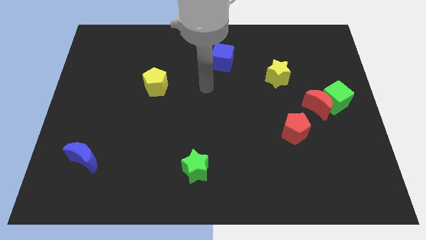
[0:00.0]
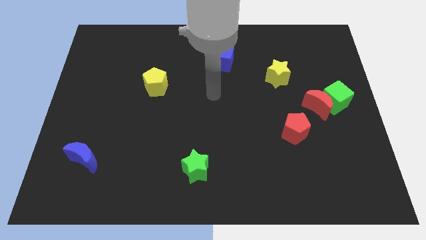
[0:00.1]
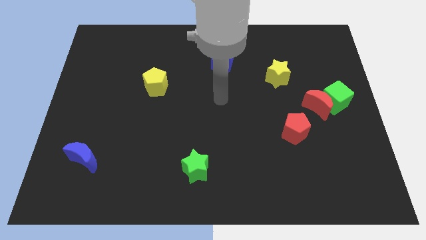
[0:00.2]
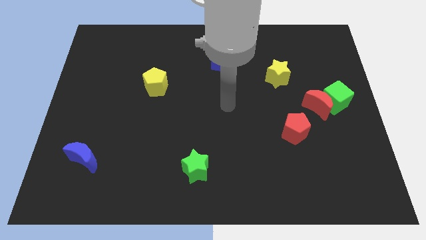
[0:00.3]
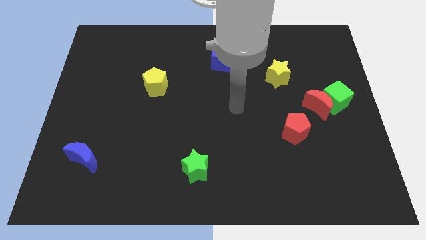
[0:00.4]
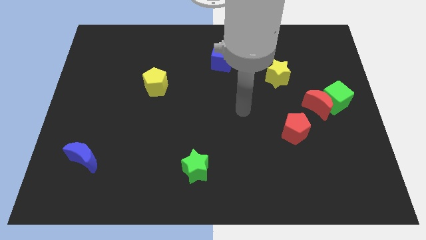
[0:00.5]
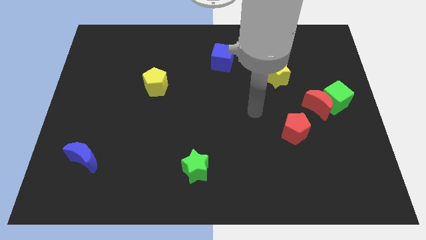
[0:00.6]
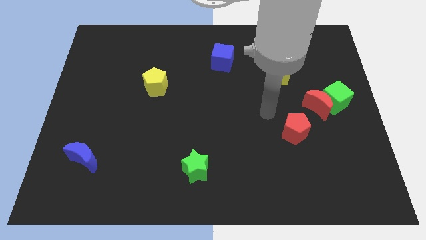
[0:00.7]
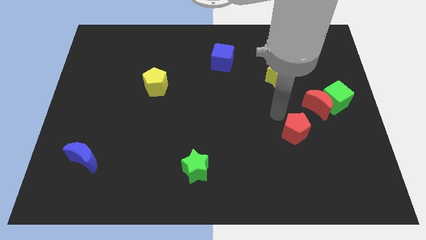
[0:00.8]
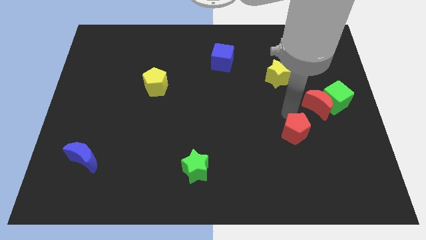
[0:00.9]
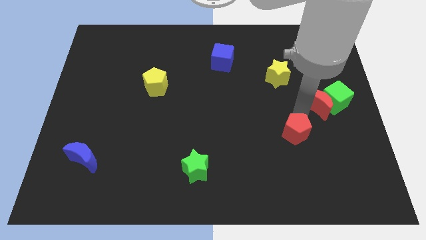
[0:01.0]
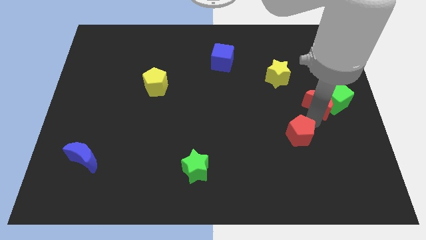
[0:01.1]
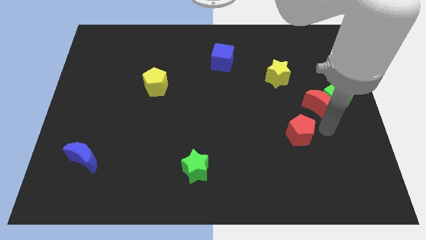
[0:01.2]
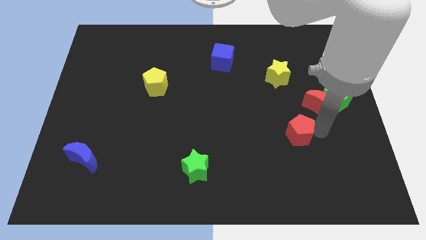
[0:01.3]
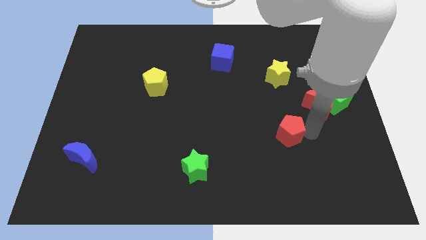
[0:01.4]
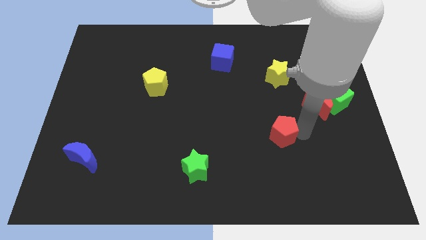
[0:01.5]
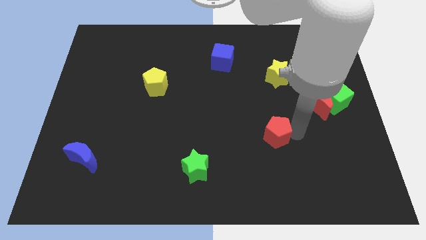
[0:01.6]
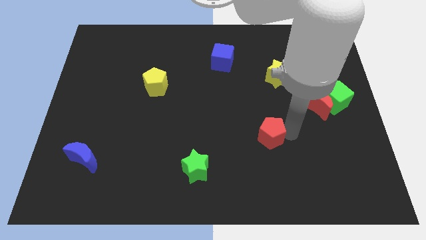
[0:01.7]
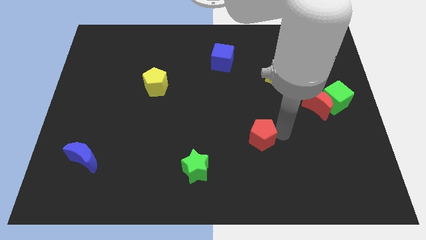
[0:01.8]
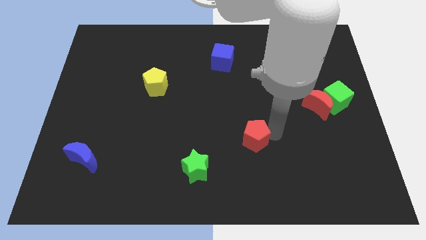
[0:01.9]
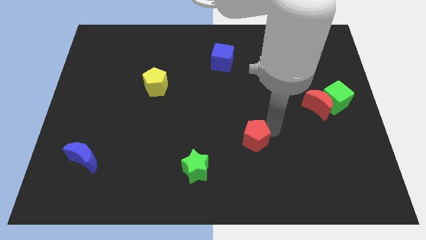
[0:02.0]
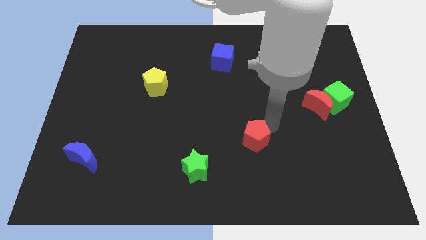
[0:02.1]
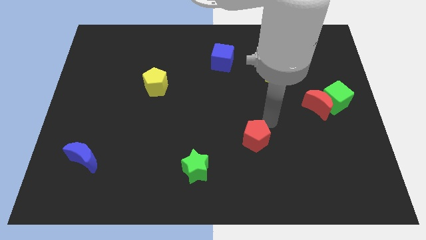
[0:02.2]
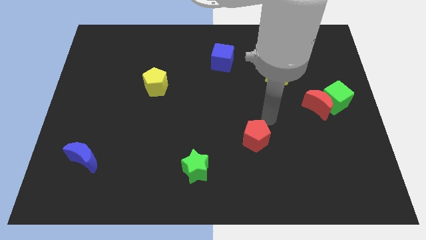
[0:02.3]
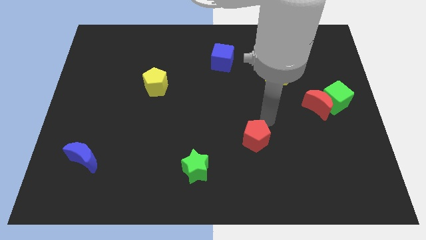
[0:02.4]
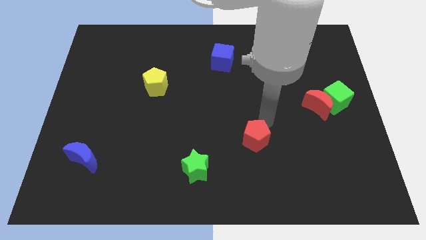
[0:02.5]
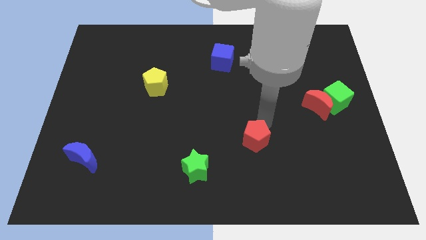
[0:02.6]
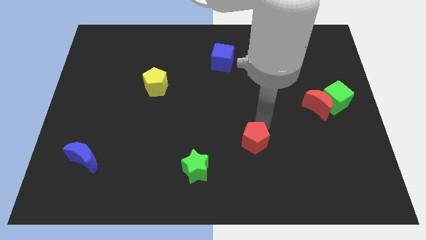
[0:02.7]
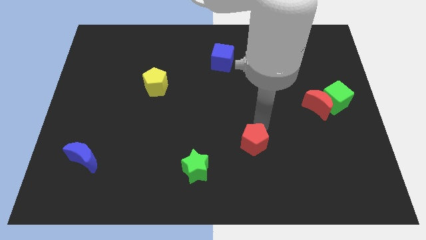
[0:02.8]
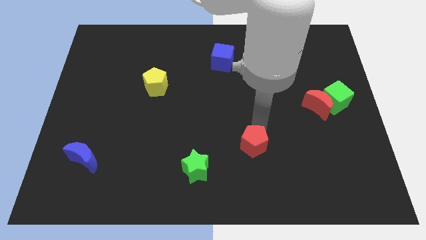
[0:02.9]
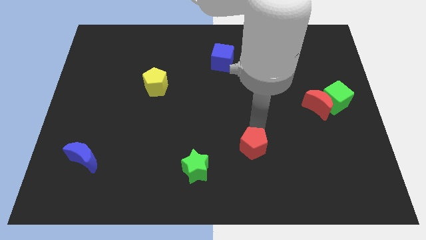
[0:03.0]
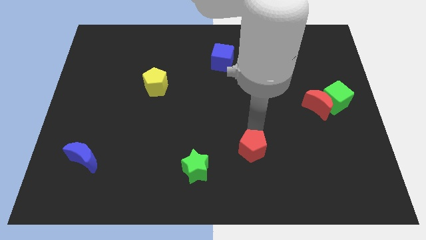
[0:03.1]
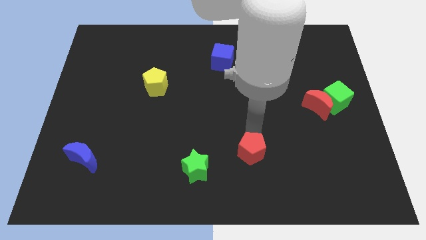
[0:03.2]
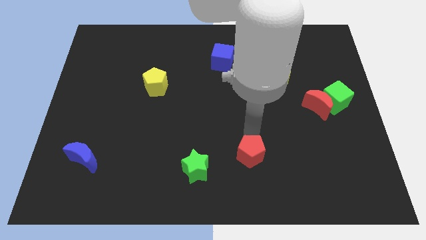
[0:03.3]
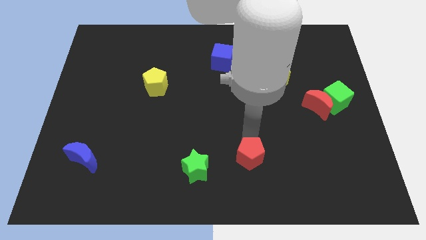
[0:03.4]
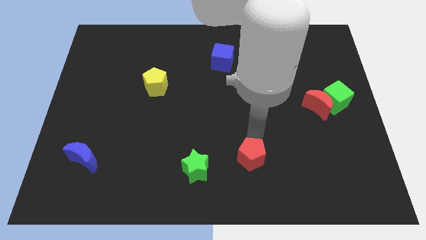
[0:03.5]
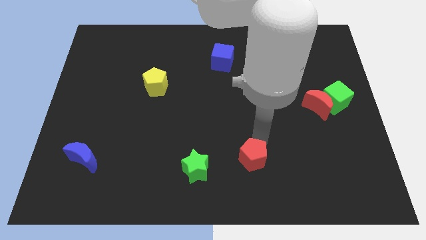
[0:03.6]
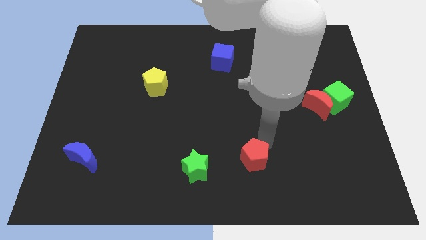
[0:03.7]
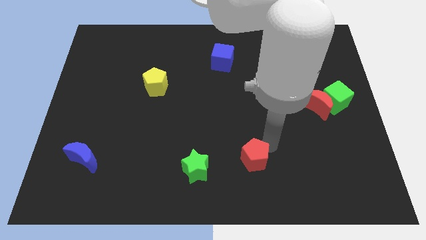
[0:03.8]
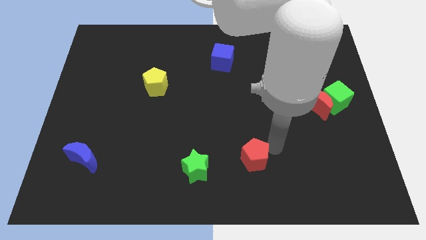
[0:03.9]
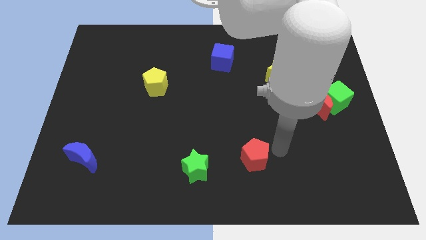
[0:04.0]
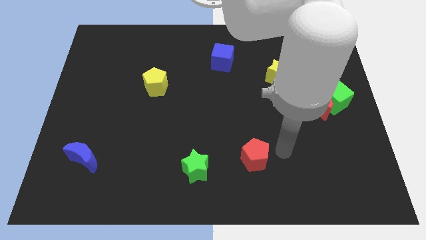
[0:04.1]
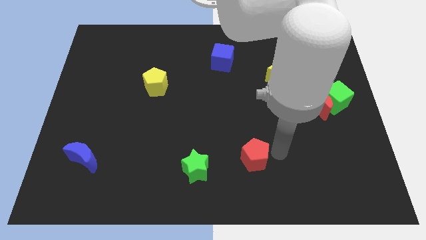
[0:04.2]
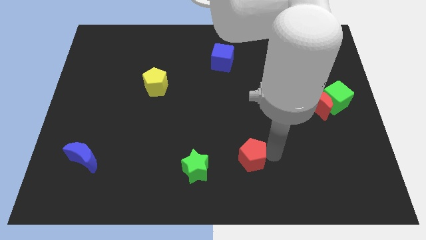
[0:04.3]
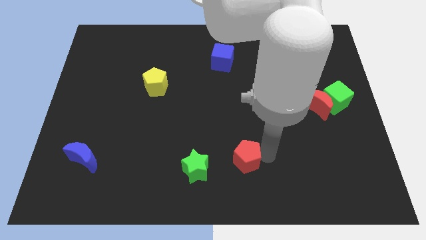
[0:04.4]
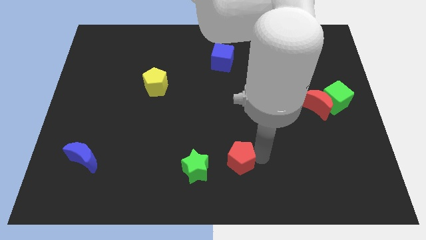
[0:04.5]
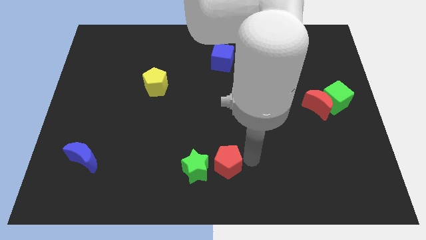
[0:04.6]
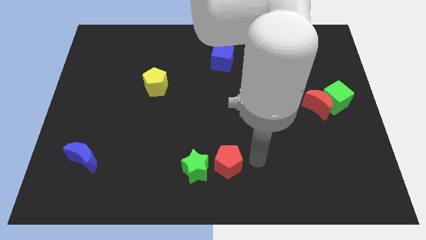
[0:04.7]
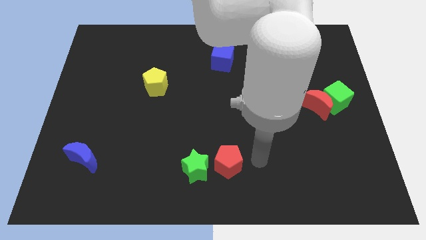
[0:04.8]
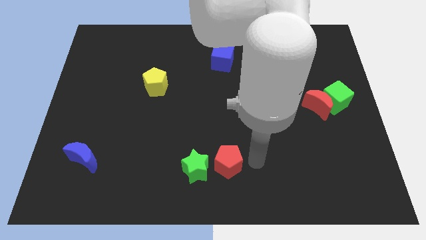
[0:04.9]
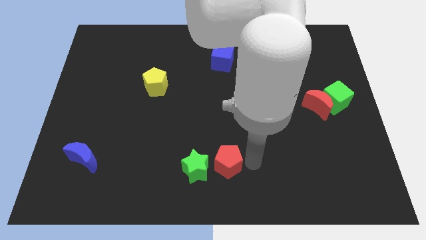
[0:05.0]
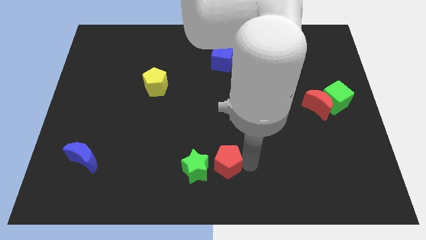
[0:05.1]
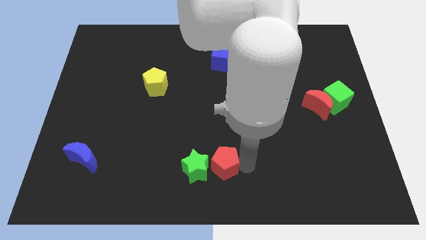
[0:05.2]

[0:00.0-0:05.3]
put the red pentagon towards the green star

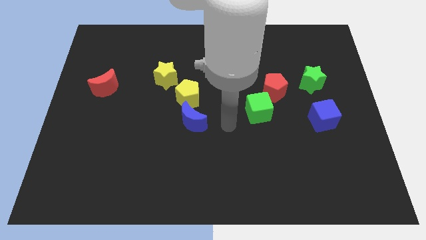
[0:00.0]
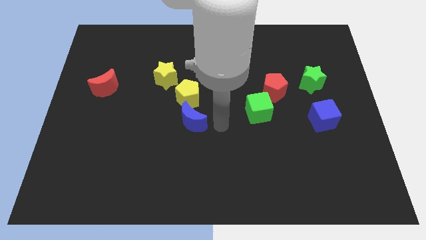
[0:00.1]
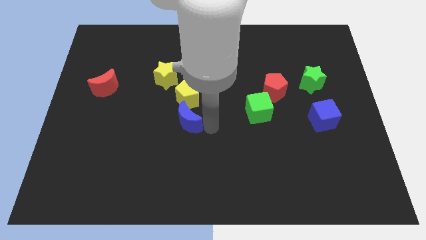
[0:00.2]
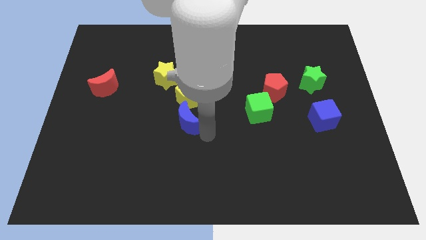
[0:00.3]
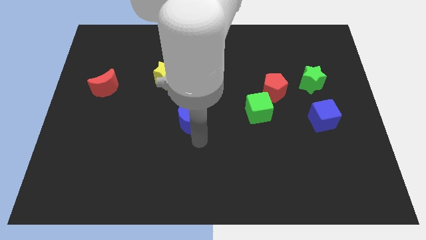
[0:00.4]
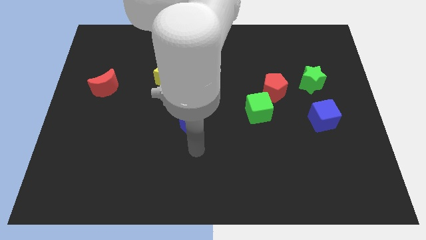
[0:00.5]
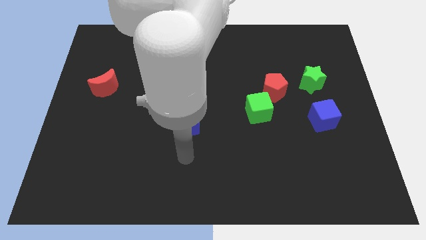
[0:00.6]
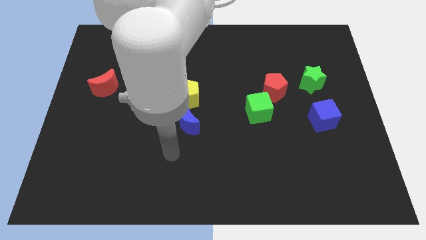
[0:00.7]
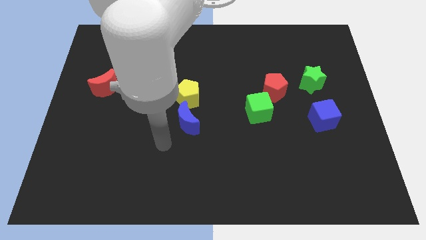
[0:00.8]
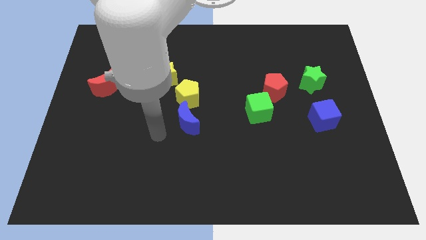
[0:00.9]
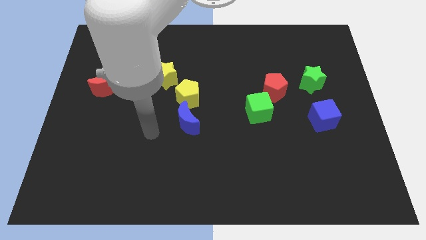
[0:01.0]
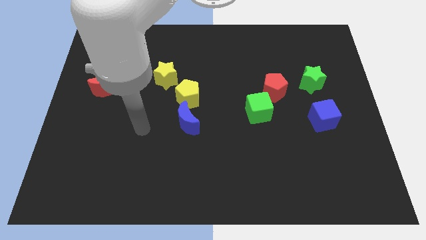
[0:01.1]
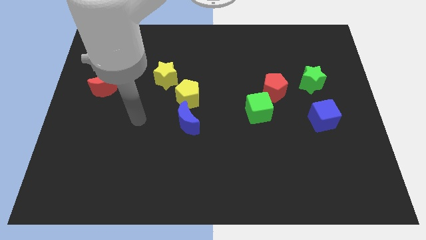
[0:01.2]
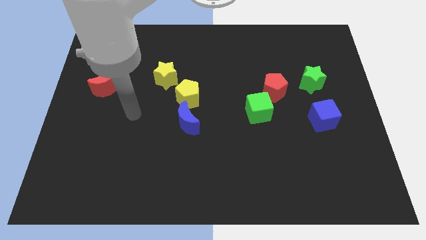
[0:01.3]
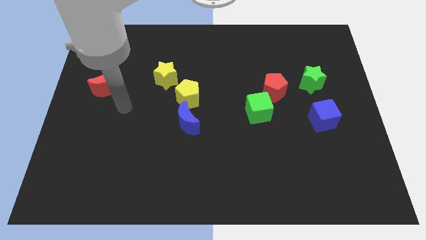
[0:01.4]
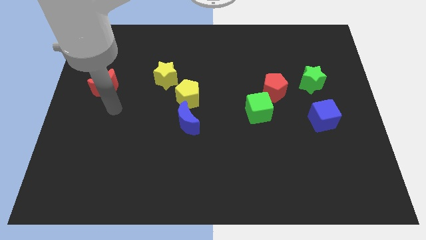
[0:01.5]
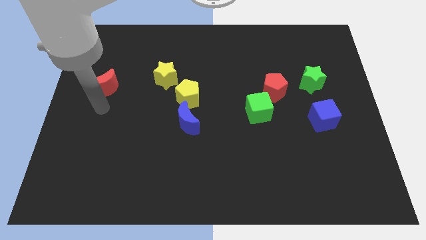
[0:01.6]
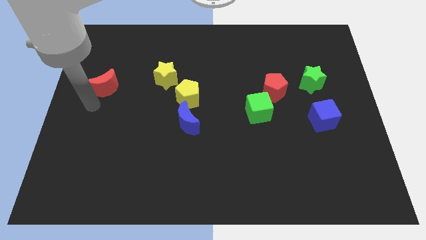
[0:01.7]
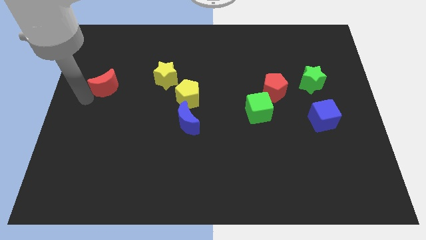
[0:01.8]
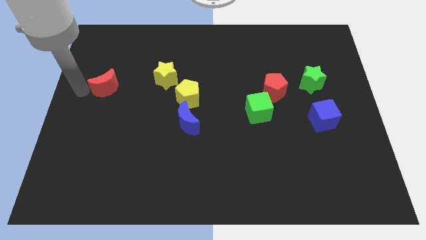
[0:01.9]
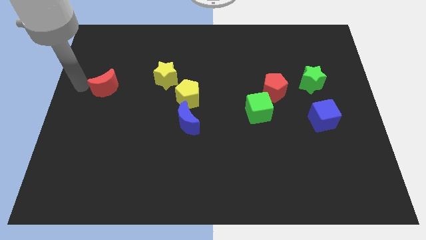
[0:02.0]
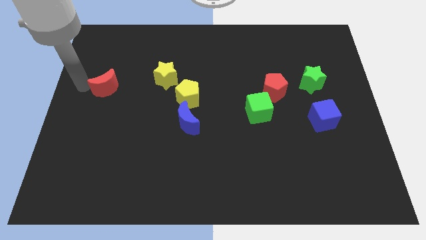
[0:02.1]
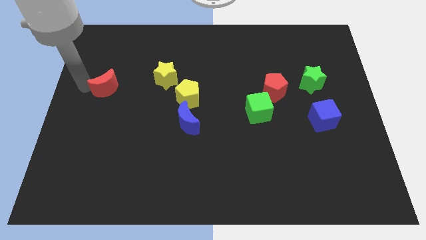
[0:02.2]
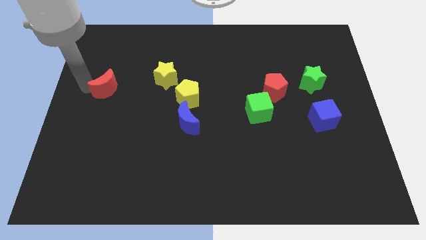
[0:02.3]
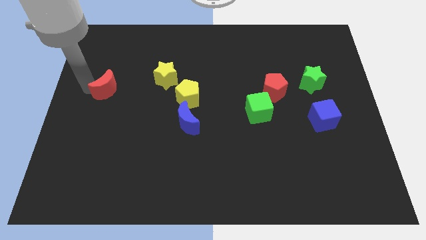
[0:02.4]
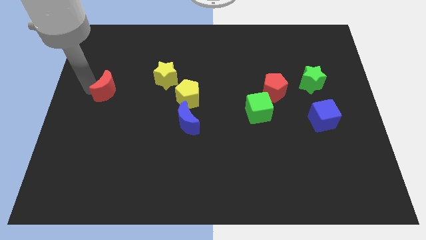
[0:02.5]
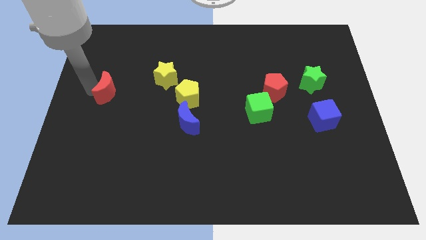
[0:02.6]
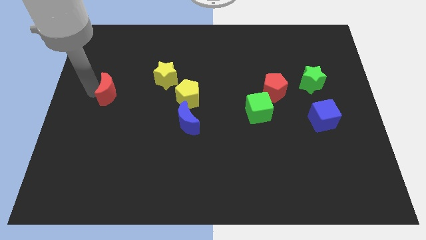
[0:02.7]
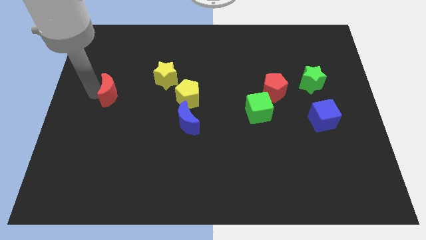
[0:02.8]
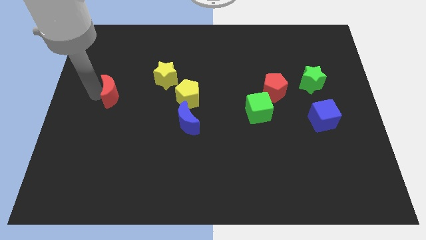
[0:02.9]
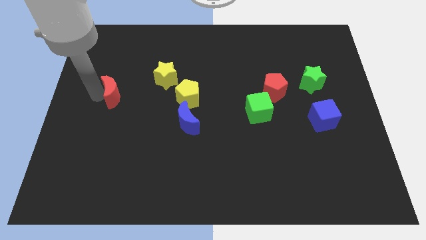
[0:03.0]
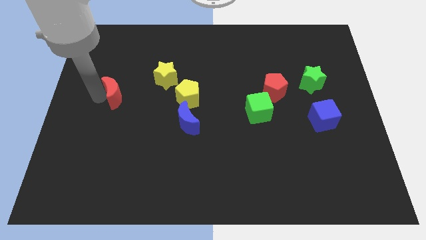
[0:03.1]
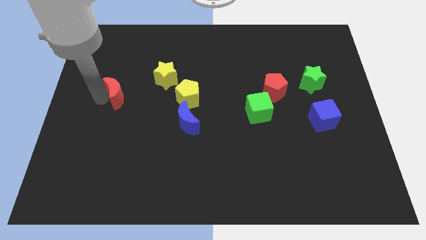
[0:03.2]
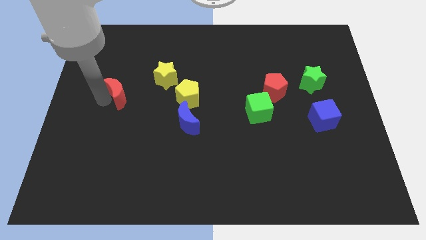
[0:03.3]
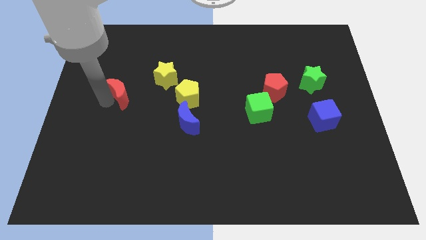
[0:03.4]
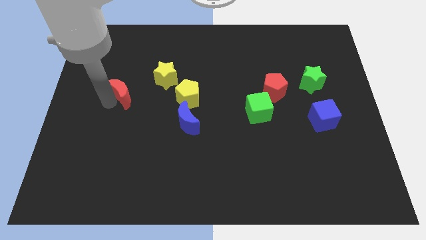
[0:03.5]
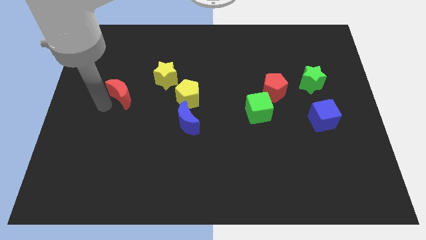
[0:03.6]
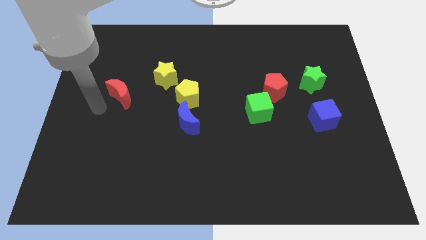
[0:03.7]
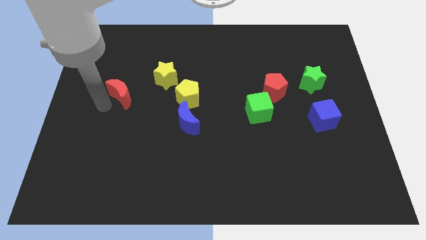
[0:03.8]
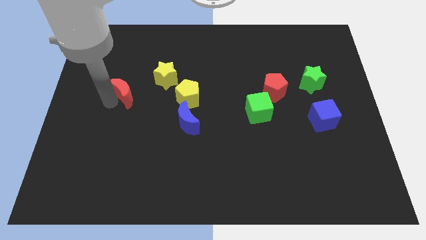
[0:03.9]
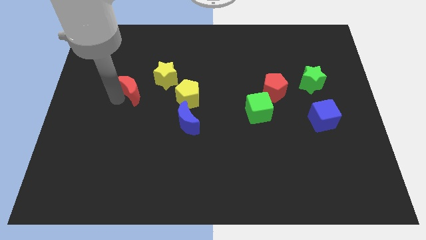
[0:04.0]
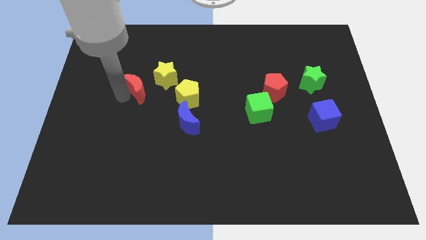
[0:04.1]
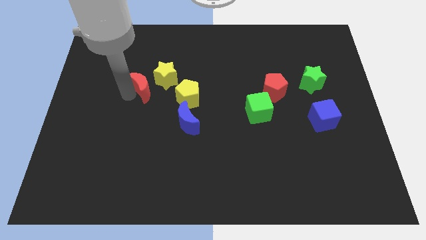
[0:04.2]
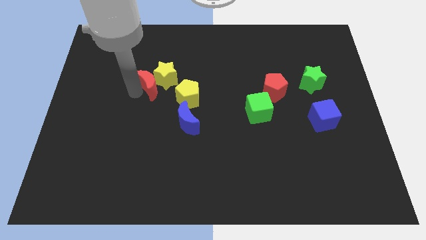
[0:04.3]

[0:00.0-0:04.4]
push the red moon to the yellow star
